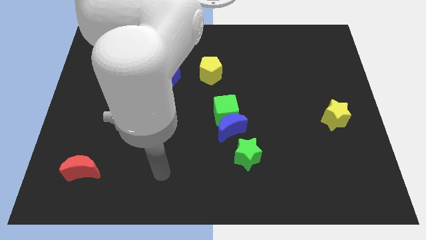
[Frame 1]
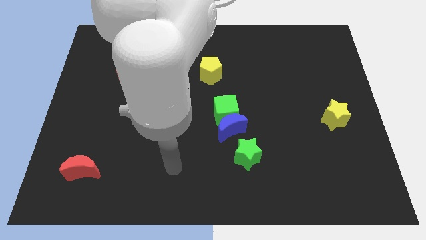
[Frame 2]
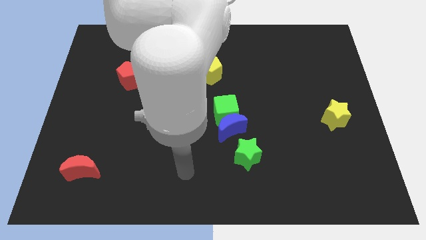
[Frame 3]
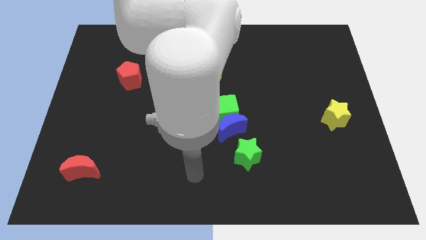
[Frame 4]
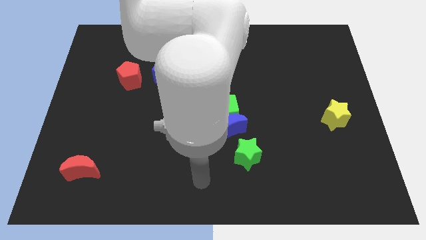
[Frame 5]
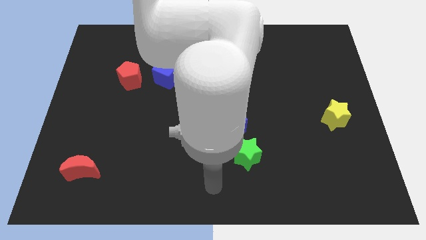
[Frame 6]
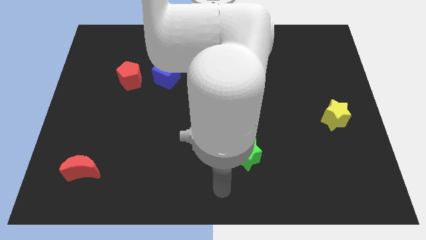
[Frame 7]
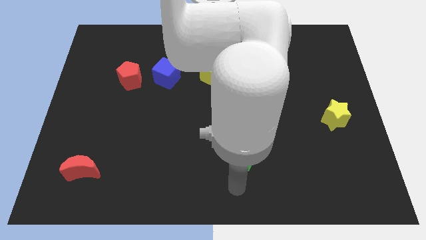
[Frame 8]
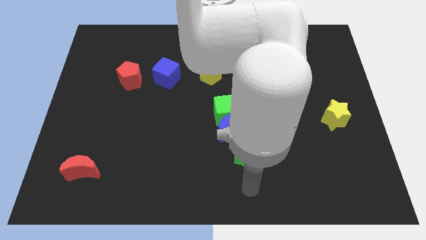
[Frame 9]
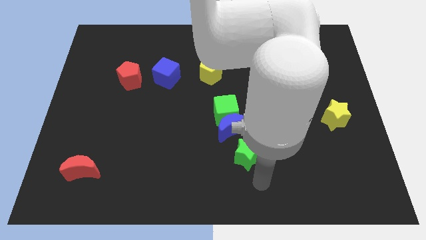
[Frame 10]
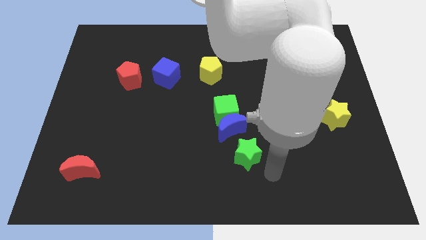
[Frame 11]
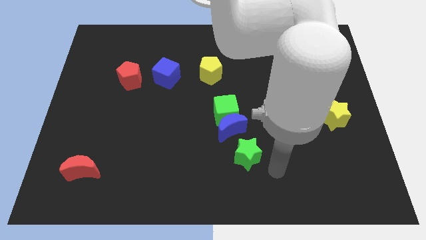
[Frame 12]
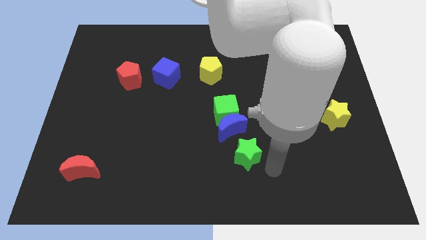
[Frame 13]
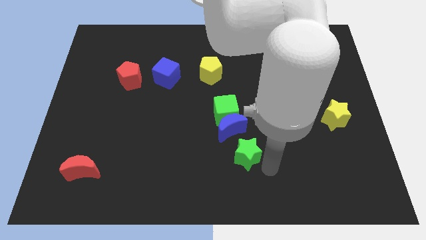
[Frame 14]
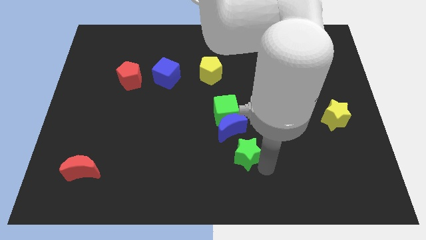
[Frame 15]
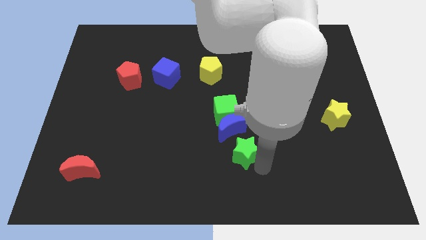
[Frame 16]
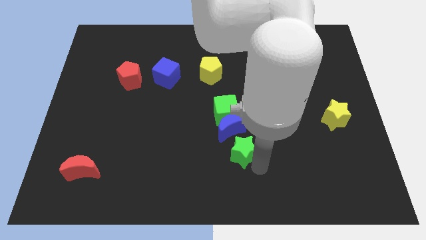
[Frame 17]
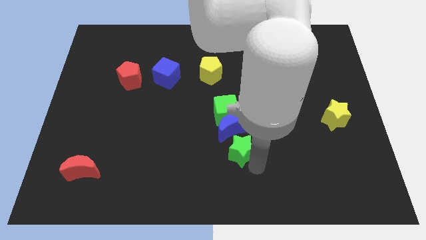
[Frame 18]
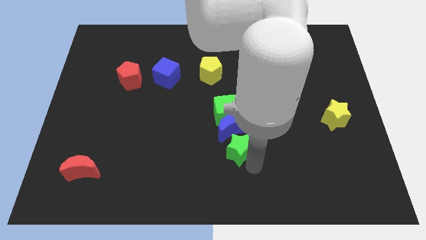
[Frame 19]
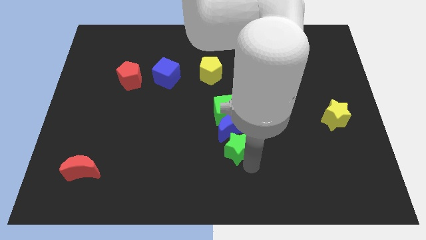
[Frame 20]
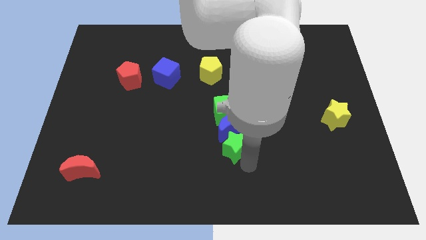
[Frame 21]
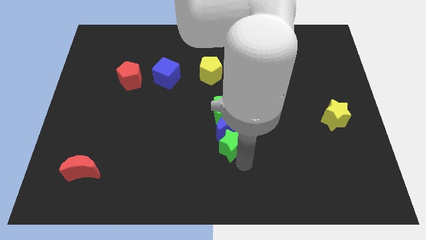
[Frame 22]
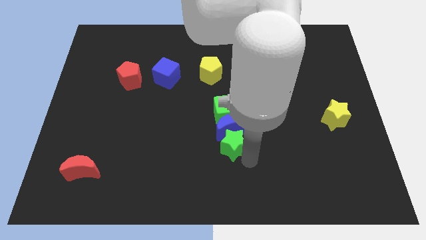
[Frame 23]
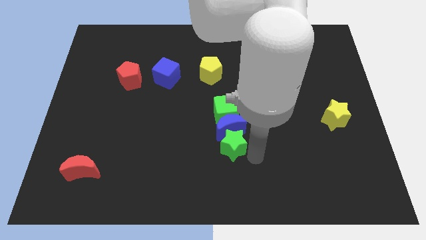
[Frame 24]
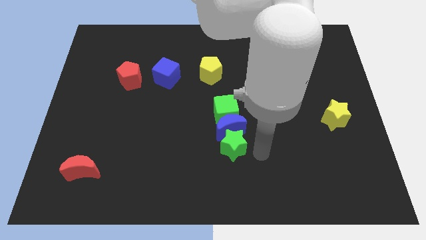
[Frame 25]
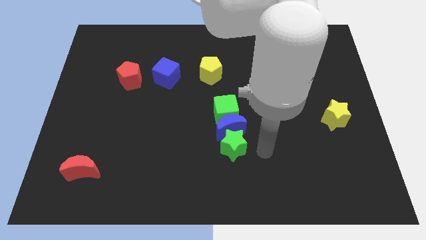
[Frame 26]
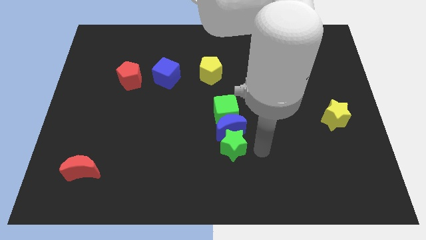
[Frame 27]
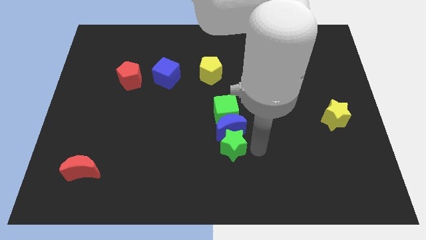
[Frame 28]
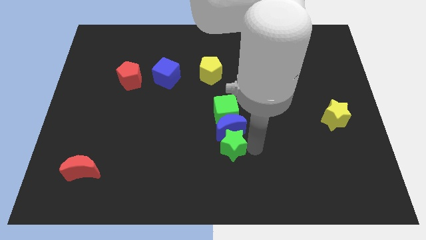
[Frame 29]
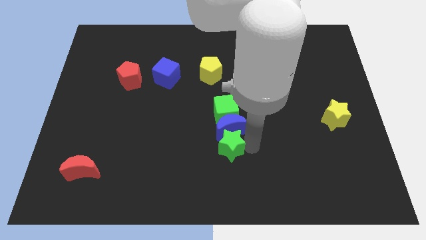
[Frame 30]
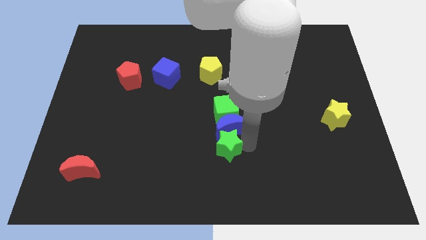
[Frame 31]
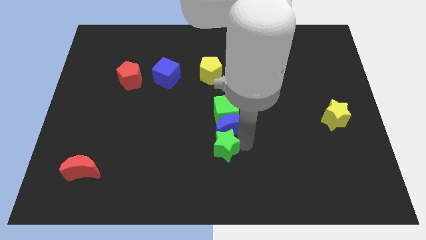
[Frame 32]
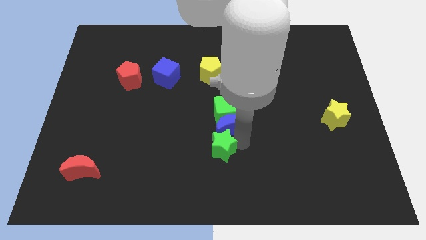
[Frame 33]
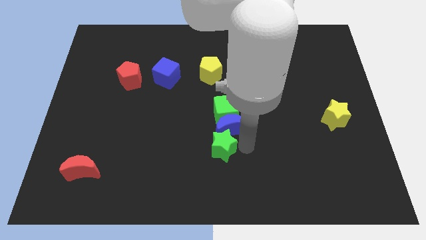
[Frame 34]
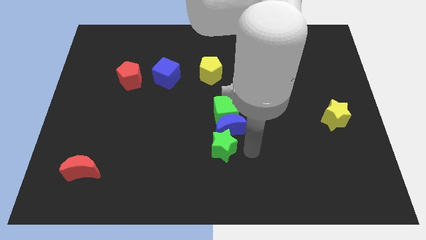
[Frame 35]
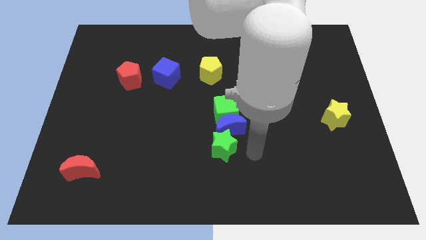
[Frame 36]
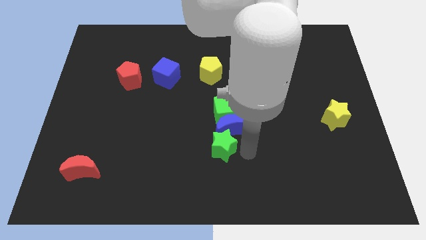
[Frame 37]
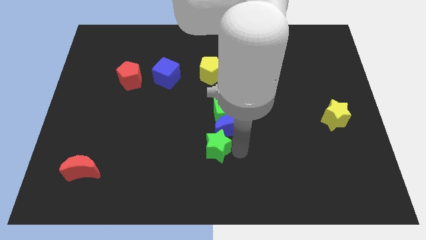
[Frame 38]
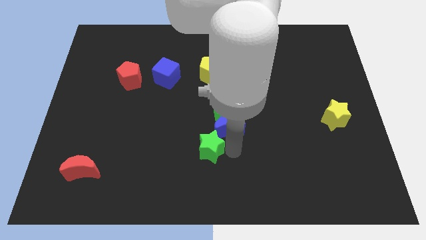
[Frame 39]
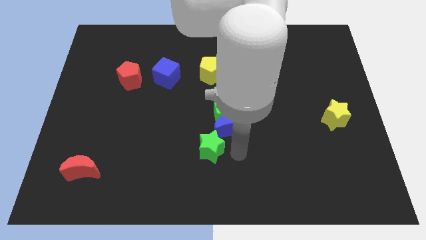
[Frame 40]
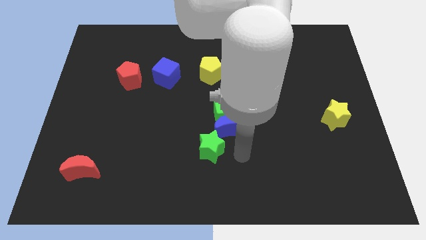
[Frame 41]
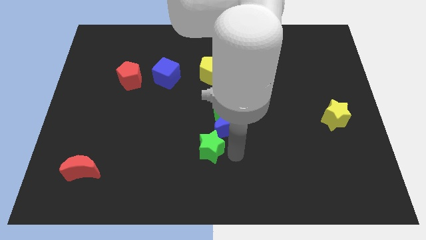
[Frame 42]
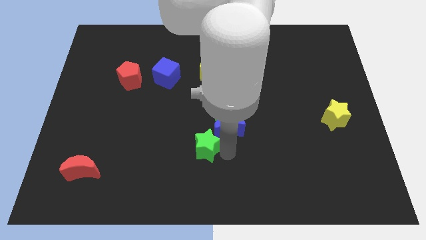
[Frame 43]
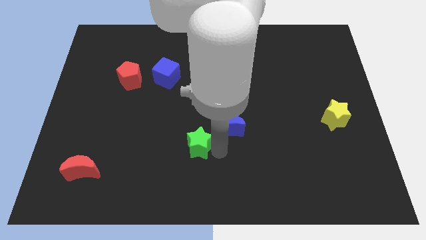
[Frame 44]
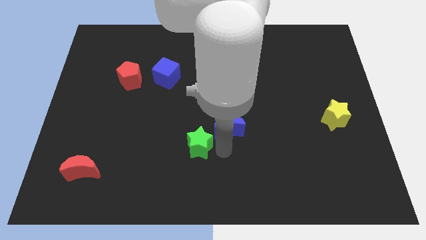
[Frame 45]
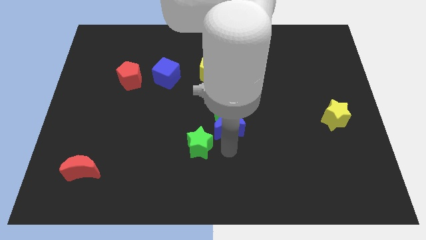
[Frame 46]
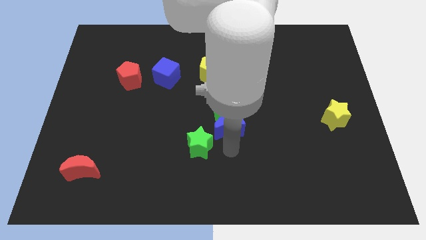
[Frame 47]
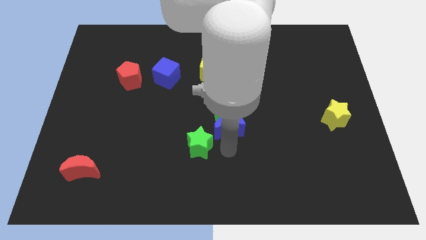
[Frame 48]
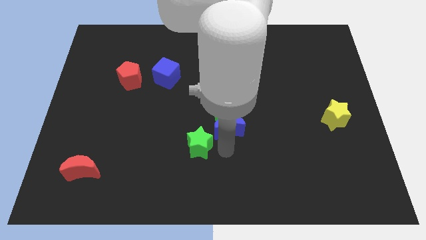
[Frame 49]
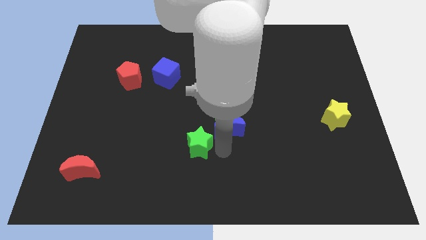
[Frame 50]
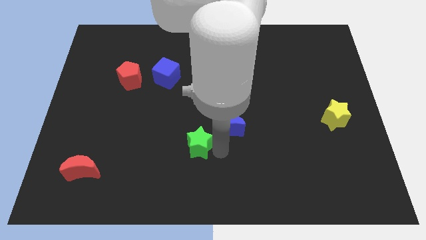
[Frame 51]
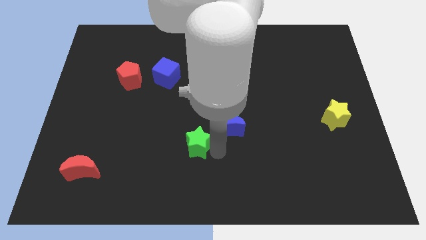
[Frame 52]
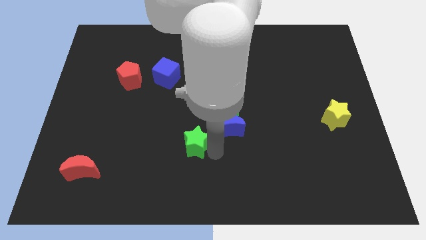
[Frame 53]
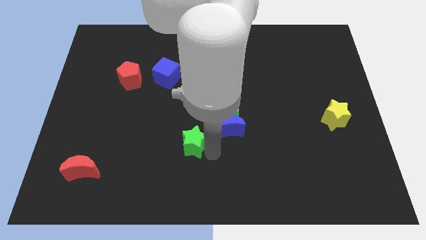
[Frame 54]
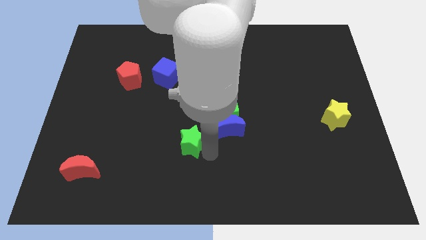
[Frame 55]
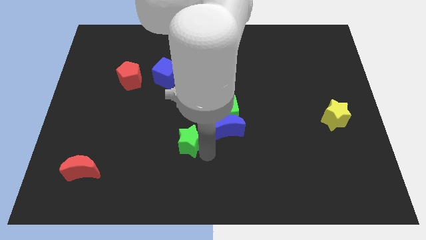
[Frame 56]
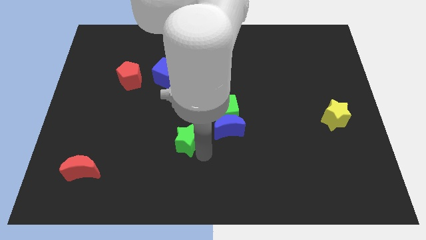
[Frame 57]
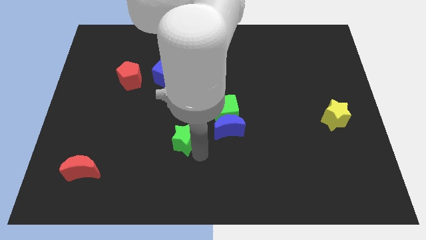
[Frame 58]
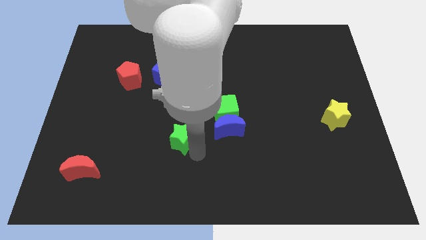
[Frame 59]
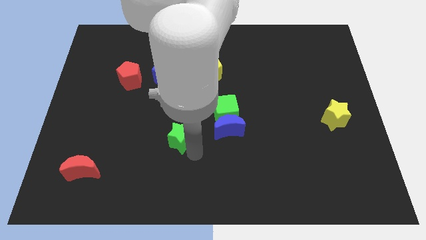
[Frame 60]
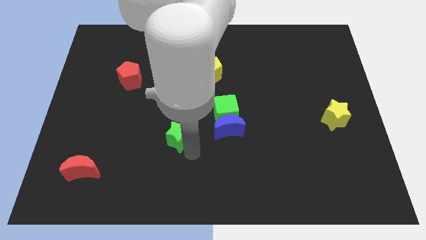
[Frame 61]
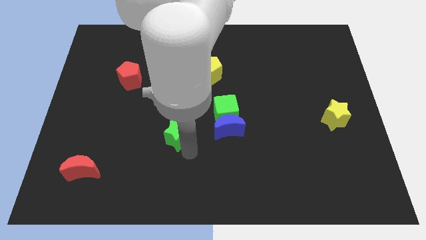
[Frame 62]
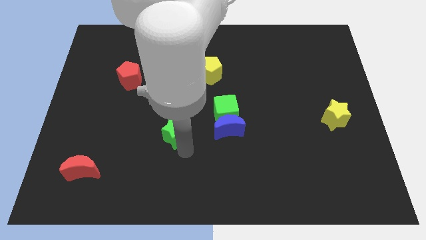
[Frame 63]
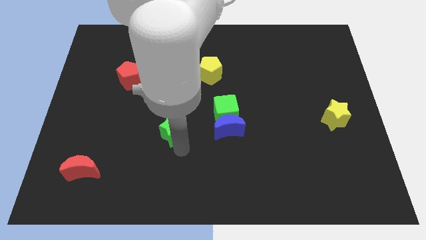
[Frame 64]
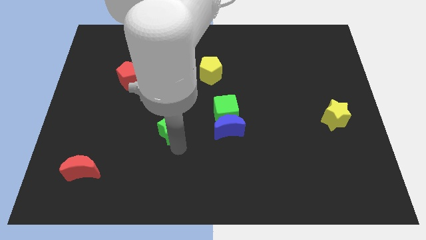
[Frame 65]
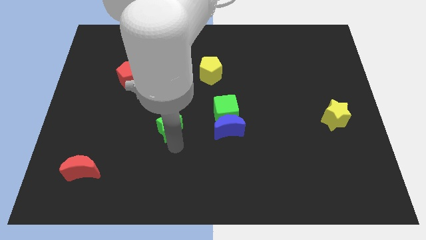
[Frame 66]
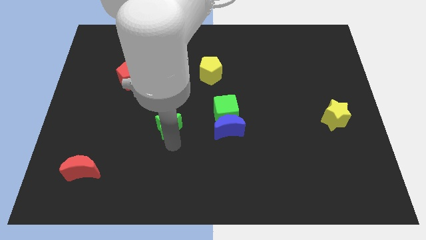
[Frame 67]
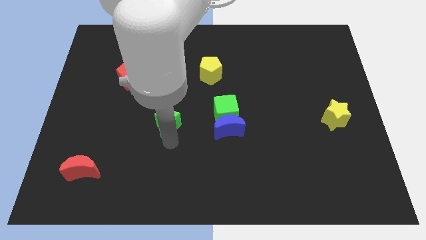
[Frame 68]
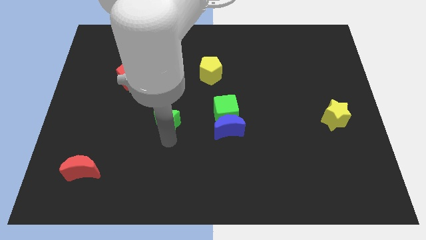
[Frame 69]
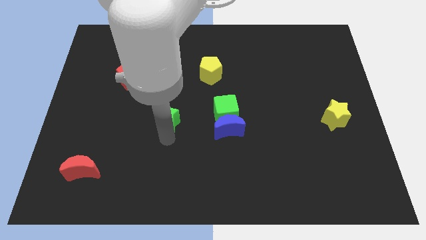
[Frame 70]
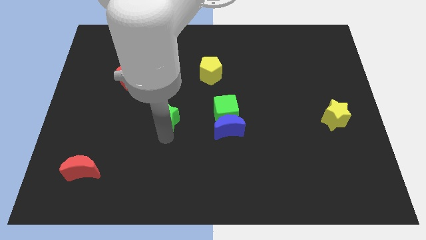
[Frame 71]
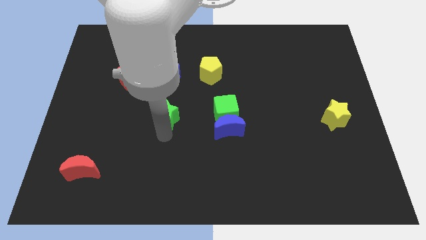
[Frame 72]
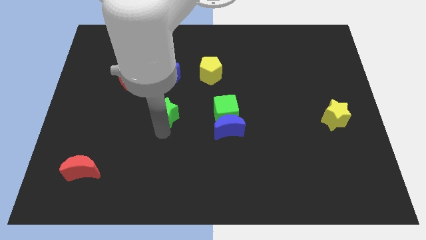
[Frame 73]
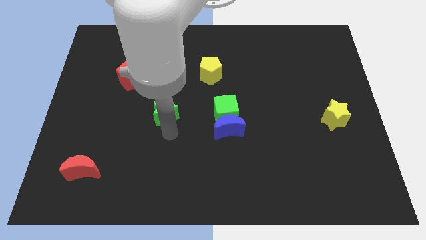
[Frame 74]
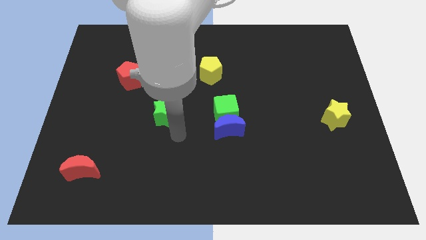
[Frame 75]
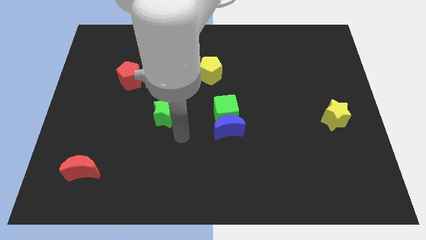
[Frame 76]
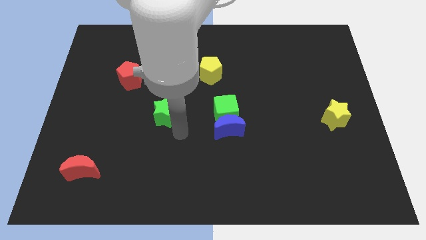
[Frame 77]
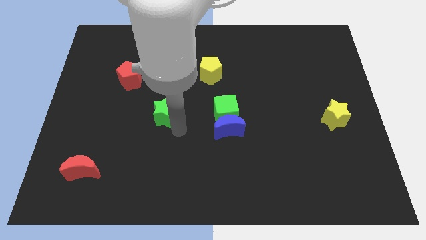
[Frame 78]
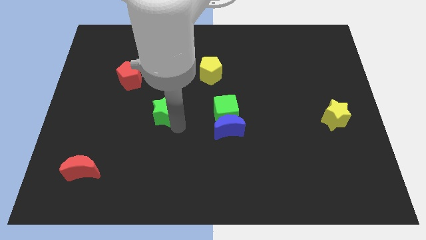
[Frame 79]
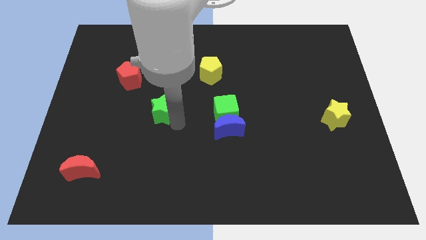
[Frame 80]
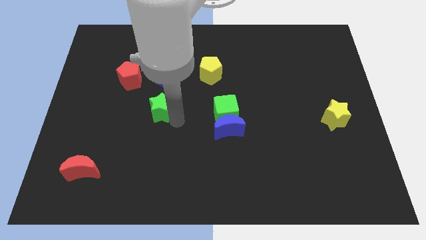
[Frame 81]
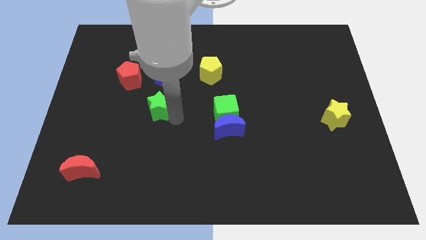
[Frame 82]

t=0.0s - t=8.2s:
put the green star diagonally down and to the right of the red pentagon

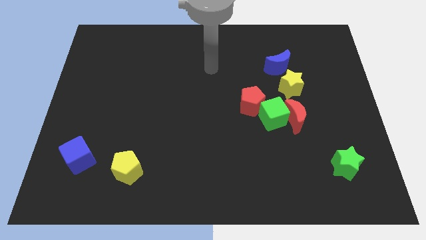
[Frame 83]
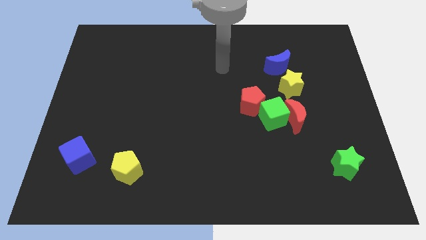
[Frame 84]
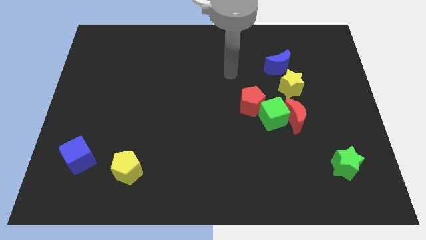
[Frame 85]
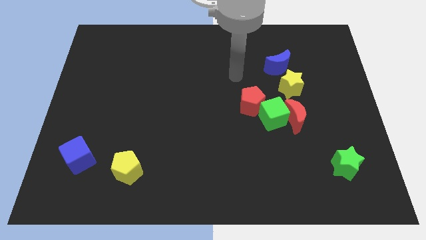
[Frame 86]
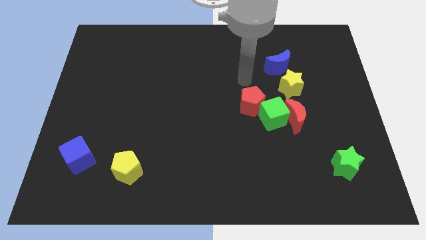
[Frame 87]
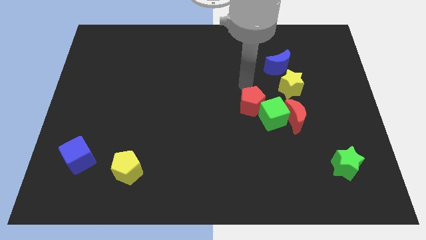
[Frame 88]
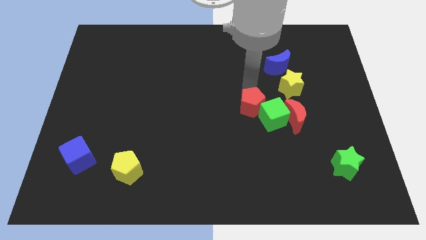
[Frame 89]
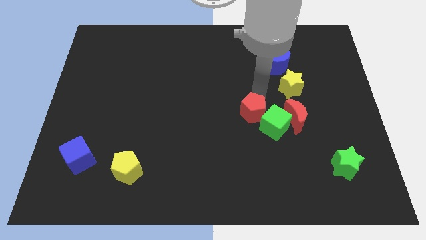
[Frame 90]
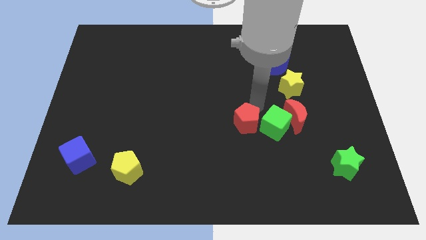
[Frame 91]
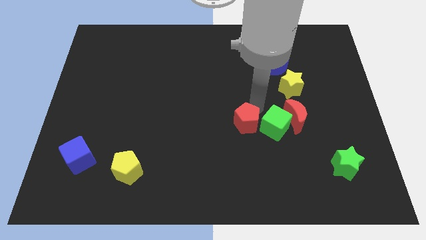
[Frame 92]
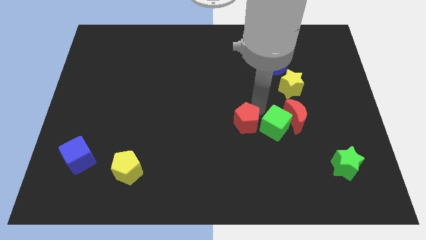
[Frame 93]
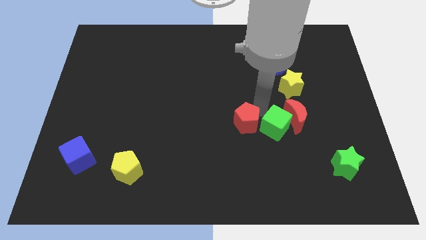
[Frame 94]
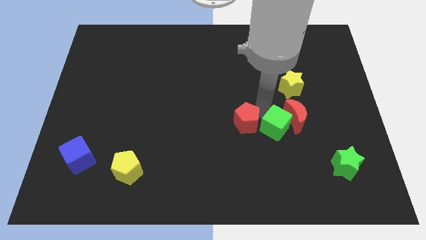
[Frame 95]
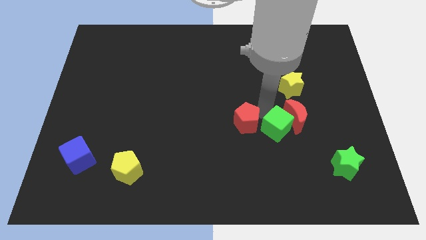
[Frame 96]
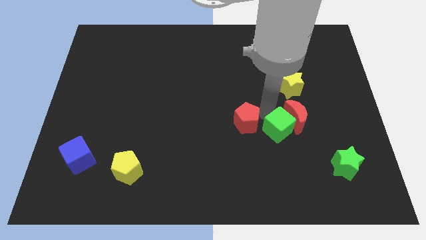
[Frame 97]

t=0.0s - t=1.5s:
push the green cube to the bottom of the red moon
